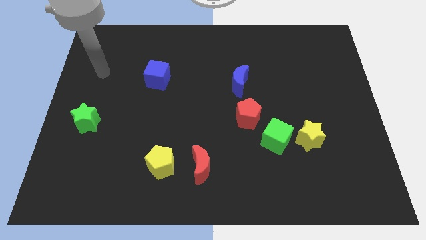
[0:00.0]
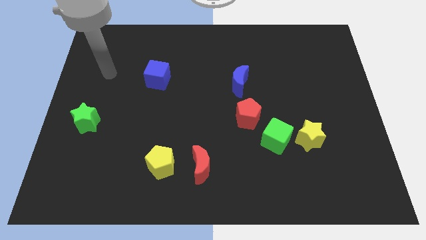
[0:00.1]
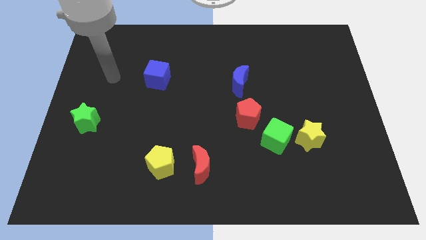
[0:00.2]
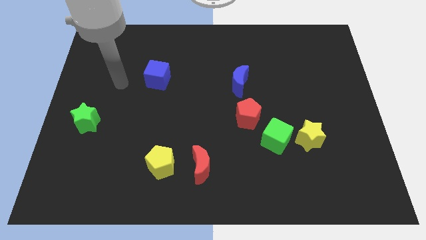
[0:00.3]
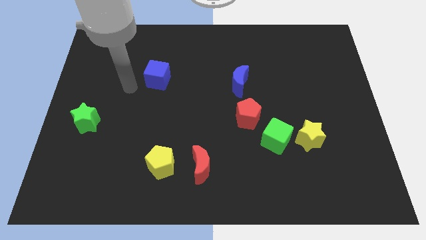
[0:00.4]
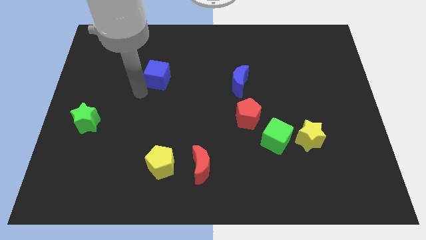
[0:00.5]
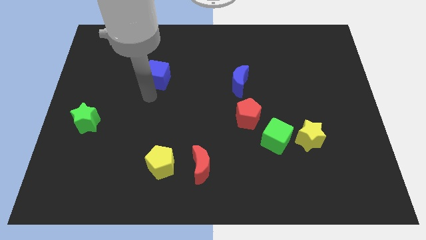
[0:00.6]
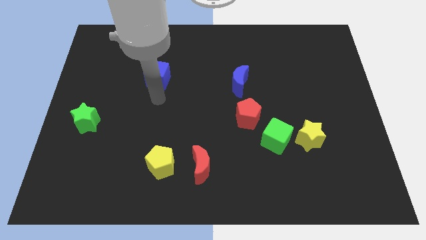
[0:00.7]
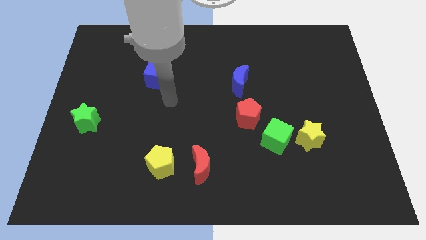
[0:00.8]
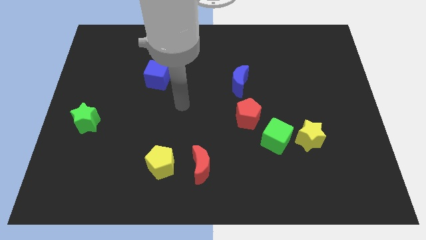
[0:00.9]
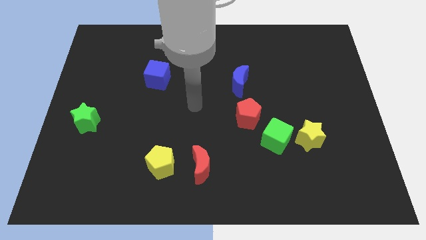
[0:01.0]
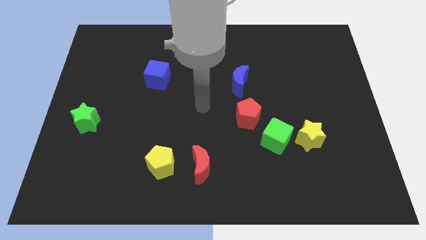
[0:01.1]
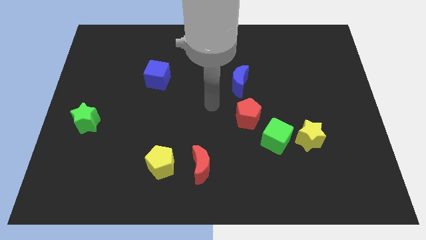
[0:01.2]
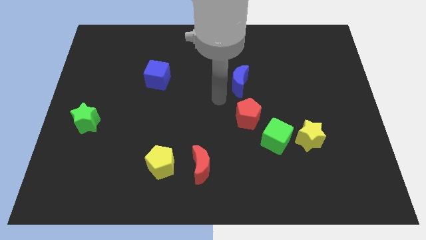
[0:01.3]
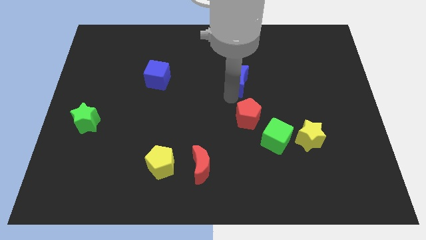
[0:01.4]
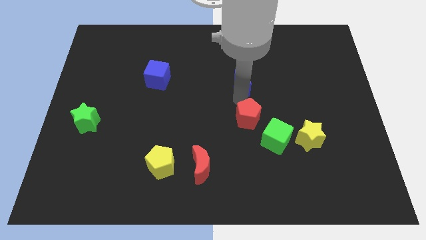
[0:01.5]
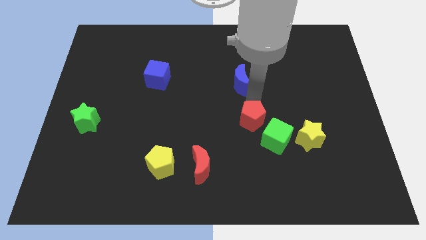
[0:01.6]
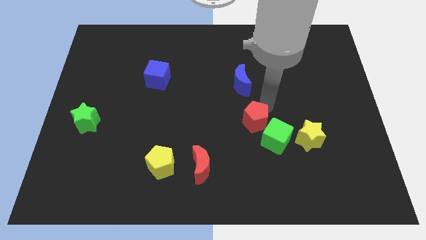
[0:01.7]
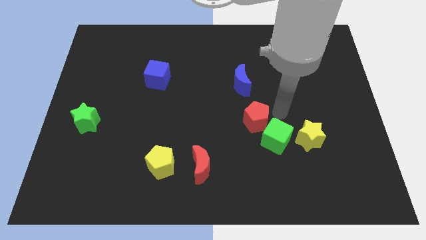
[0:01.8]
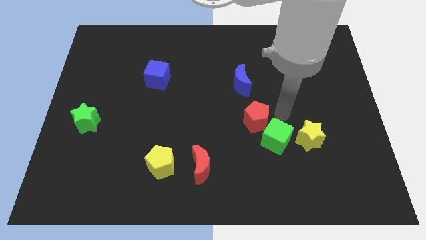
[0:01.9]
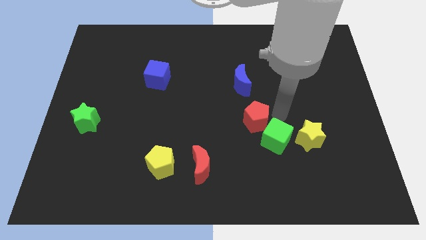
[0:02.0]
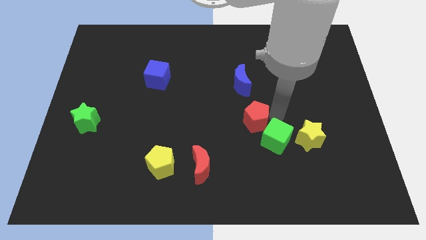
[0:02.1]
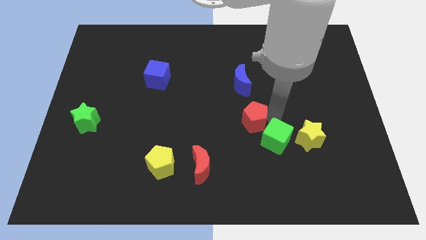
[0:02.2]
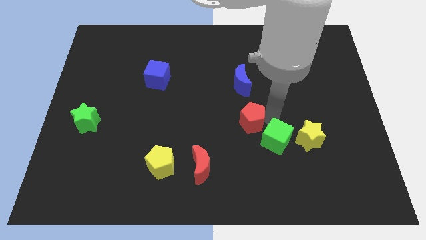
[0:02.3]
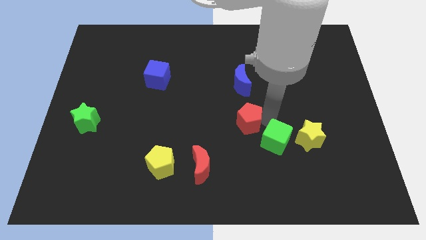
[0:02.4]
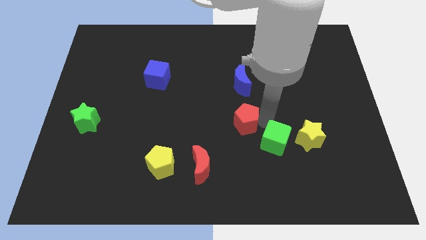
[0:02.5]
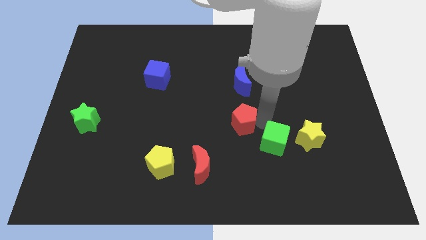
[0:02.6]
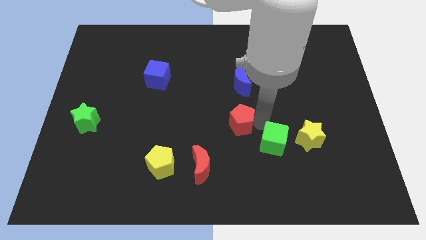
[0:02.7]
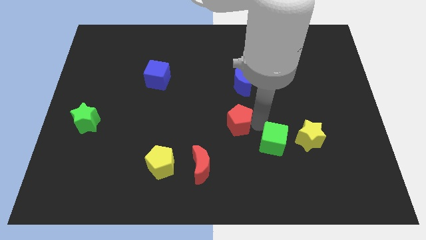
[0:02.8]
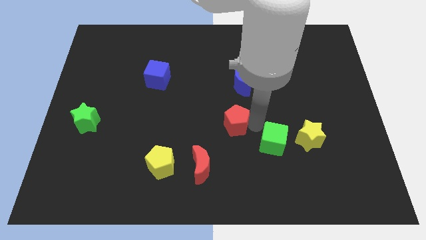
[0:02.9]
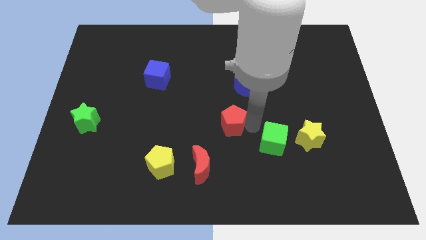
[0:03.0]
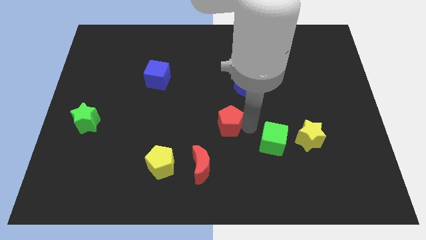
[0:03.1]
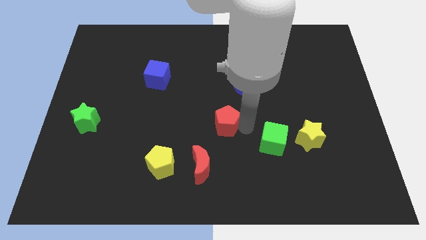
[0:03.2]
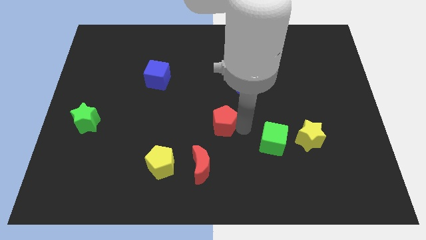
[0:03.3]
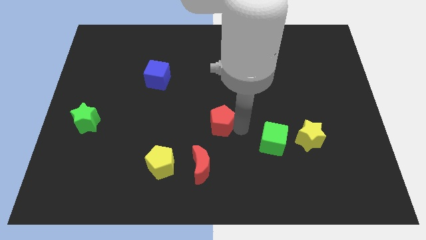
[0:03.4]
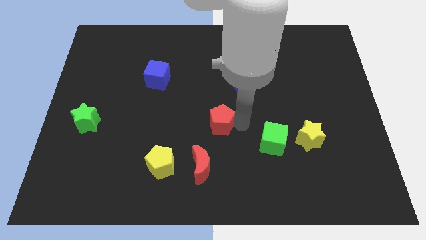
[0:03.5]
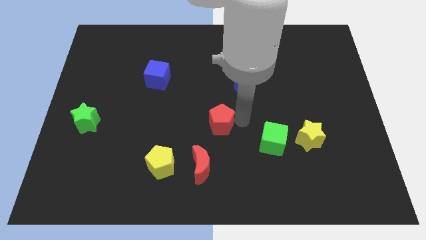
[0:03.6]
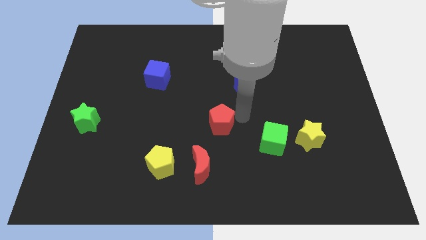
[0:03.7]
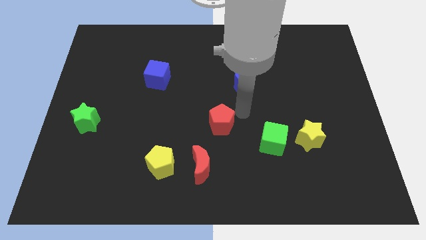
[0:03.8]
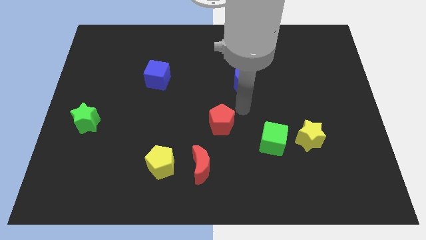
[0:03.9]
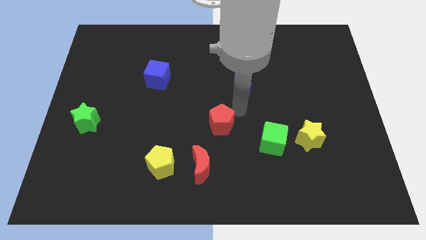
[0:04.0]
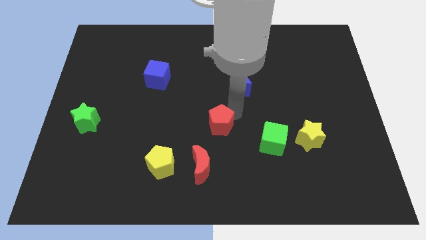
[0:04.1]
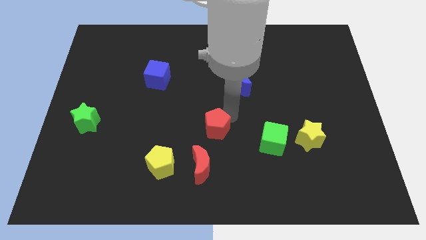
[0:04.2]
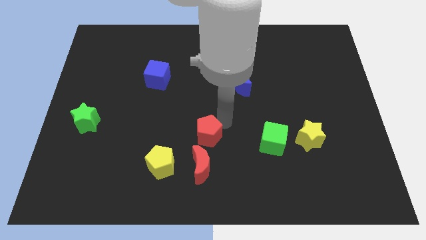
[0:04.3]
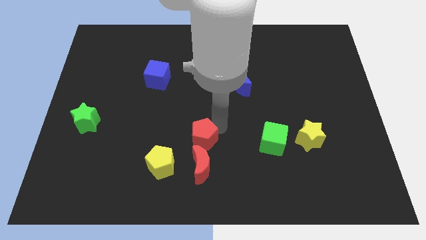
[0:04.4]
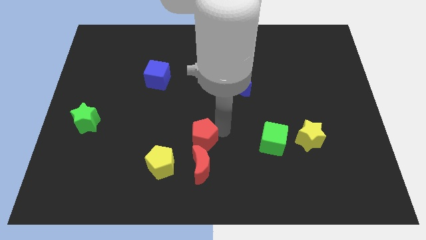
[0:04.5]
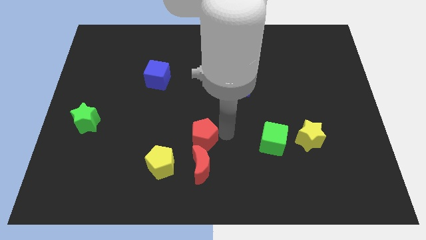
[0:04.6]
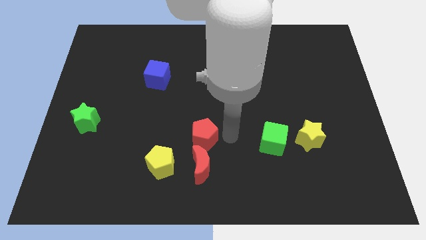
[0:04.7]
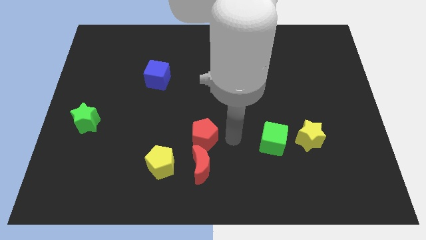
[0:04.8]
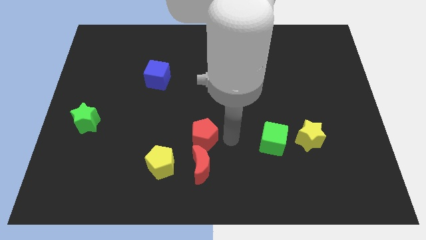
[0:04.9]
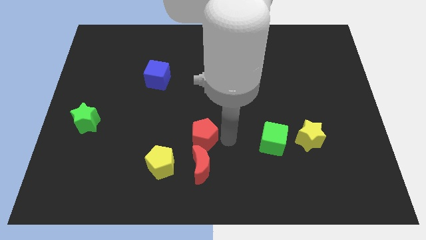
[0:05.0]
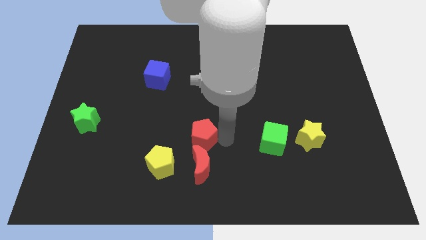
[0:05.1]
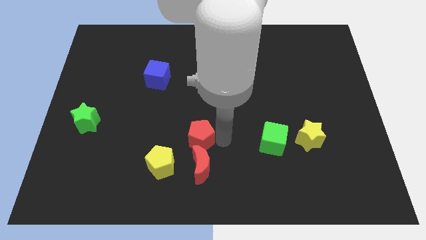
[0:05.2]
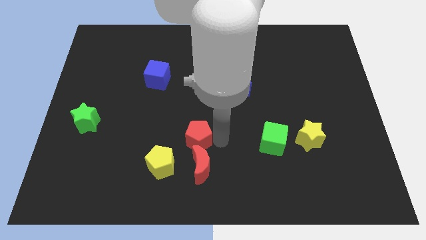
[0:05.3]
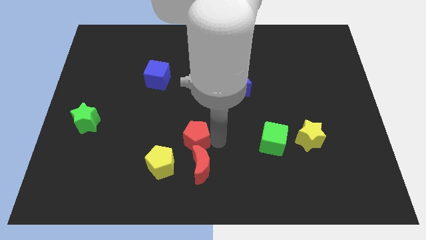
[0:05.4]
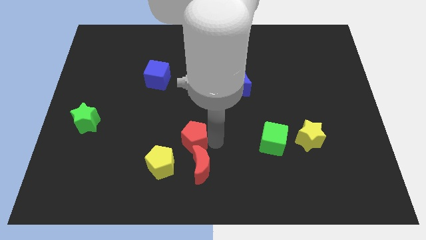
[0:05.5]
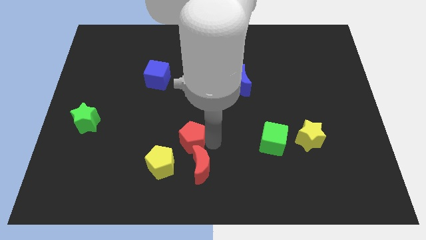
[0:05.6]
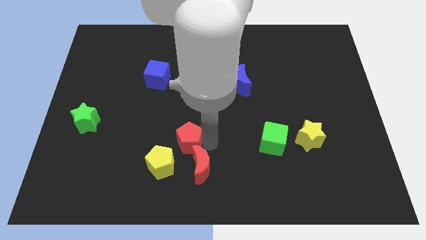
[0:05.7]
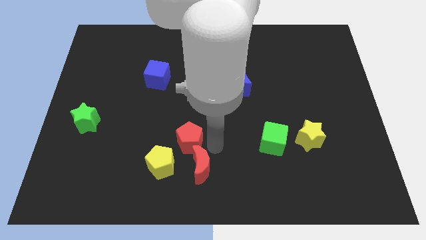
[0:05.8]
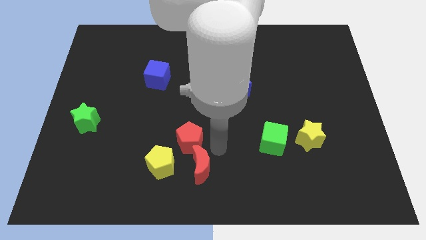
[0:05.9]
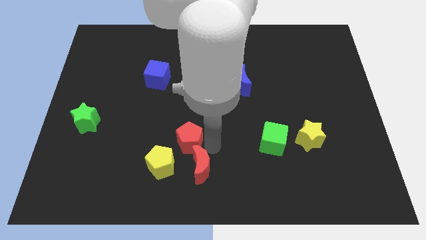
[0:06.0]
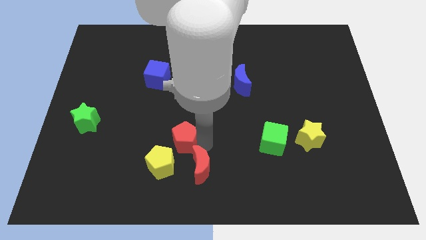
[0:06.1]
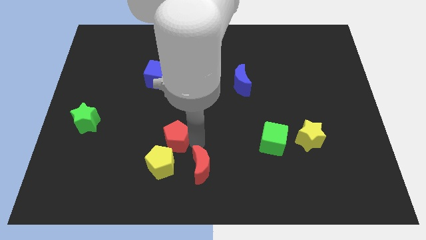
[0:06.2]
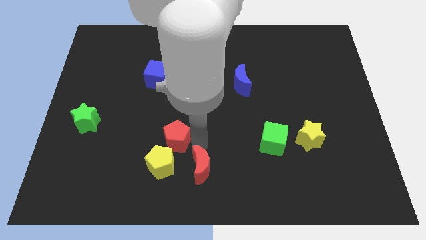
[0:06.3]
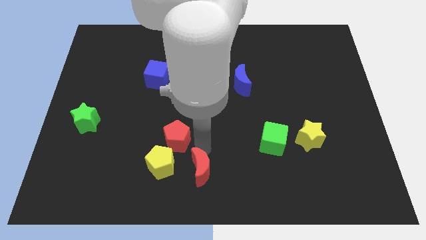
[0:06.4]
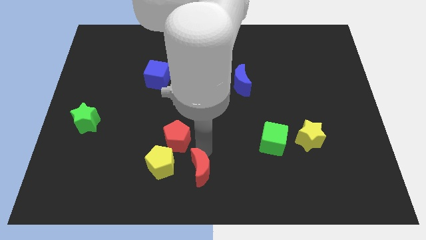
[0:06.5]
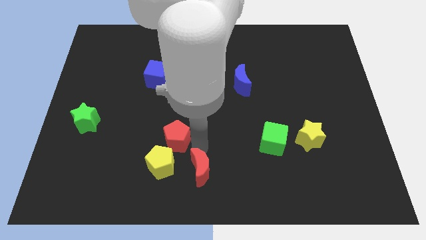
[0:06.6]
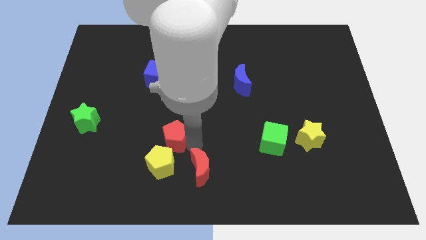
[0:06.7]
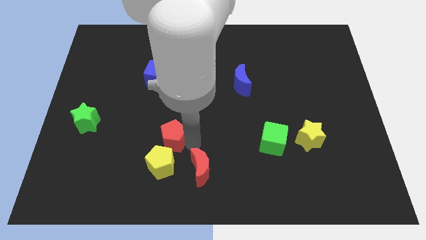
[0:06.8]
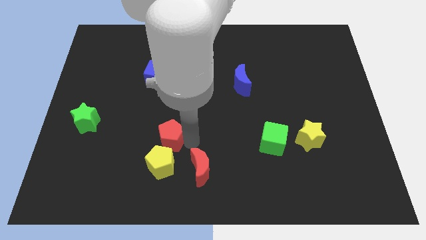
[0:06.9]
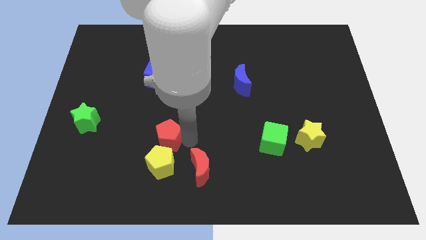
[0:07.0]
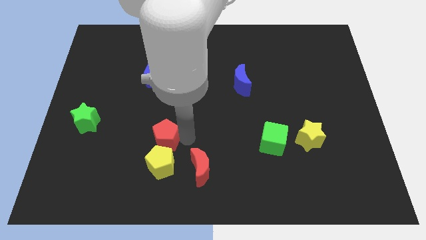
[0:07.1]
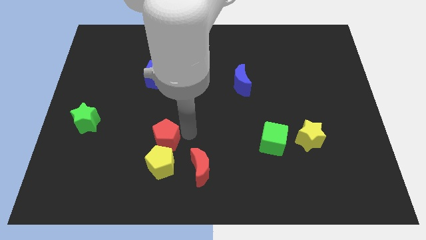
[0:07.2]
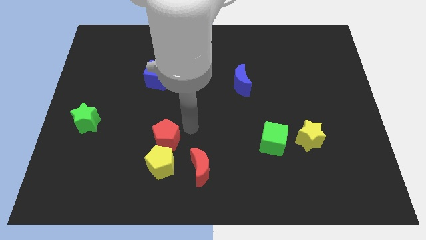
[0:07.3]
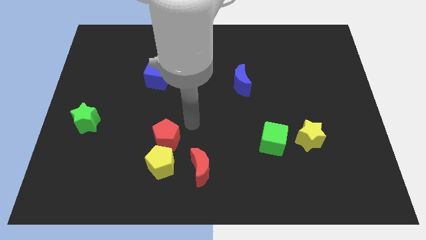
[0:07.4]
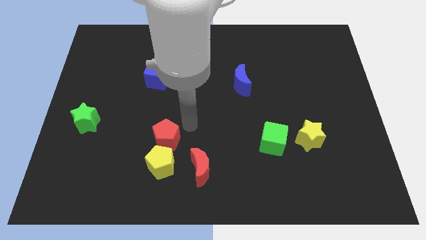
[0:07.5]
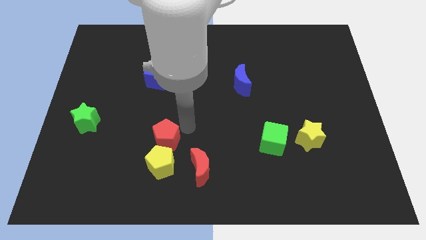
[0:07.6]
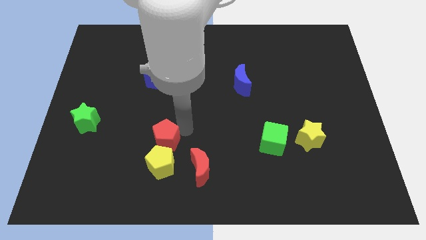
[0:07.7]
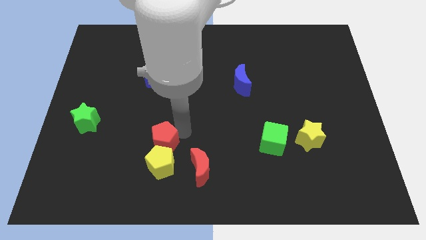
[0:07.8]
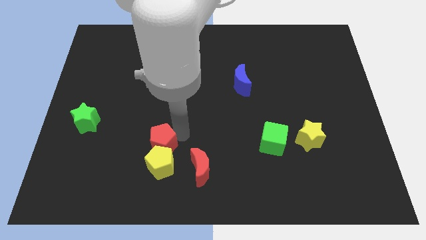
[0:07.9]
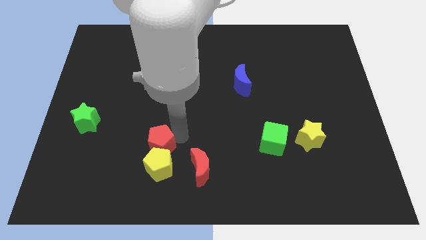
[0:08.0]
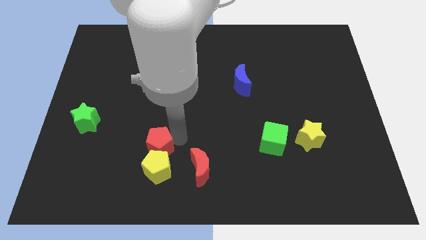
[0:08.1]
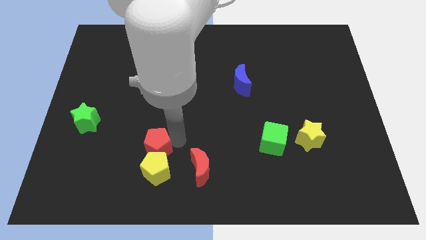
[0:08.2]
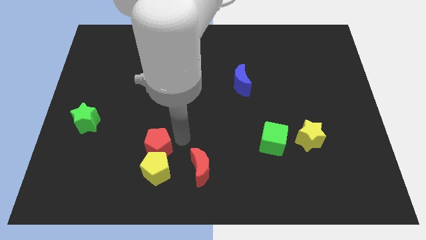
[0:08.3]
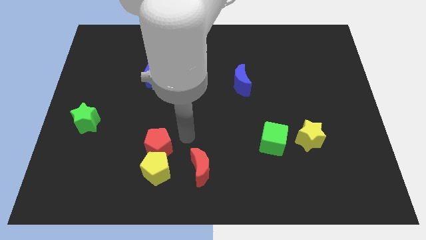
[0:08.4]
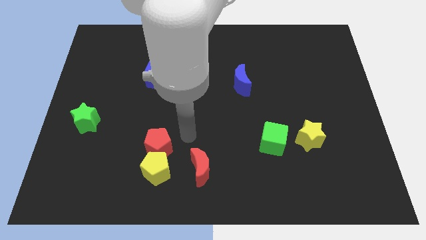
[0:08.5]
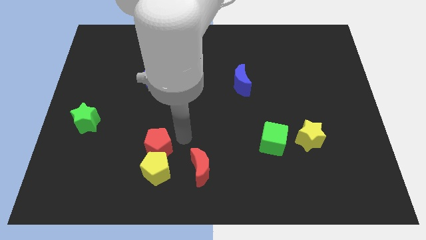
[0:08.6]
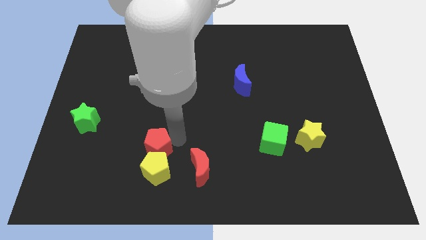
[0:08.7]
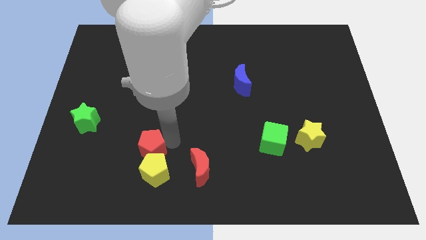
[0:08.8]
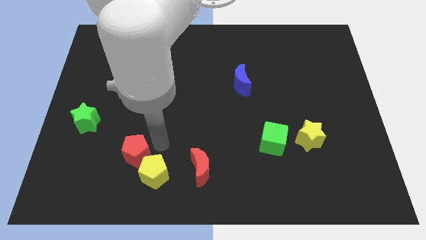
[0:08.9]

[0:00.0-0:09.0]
put the red pentagon to the left side of the yellow pentagon
